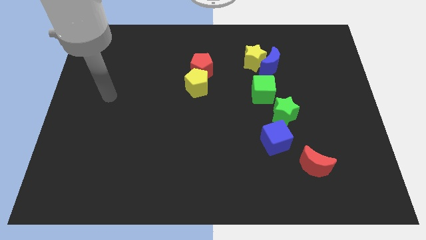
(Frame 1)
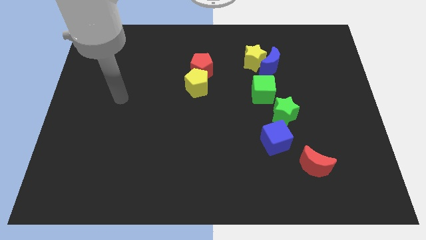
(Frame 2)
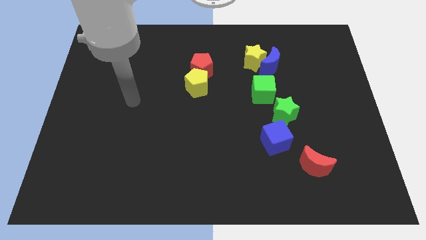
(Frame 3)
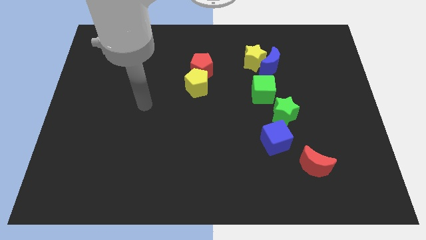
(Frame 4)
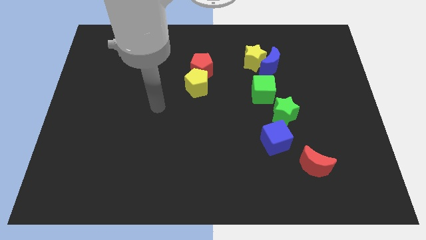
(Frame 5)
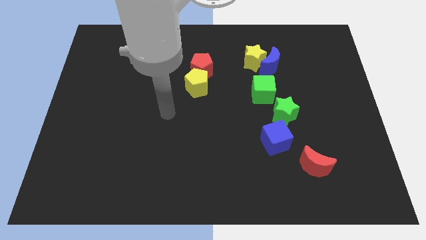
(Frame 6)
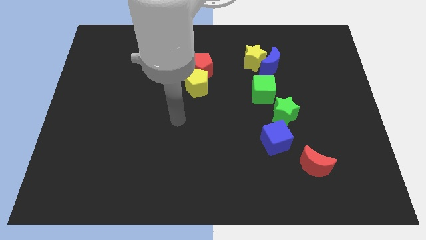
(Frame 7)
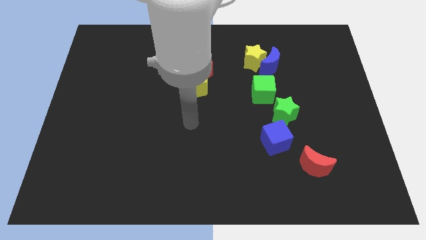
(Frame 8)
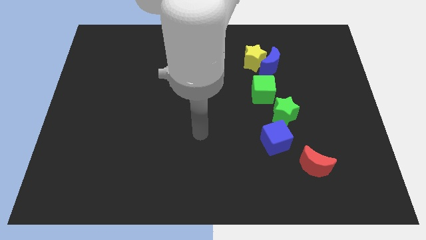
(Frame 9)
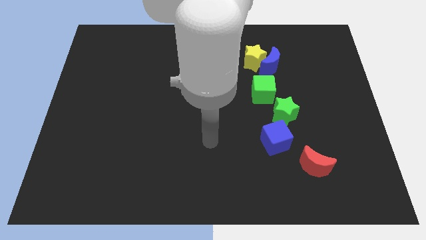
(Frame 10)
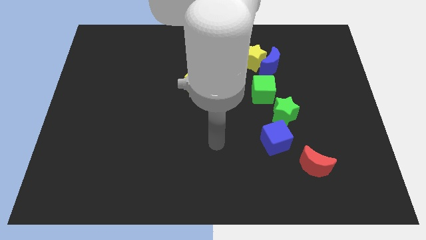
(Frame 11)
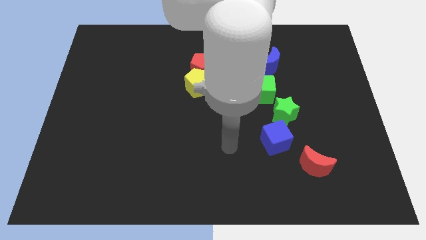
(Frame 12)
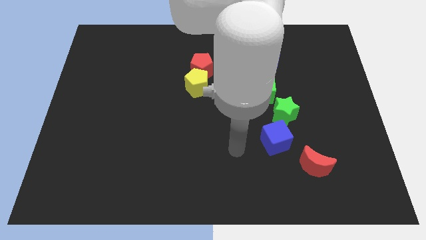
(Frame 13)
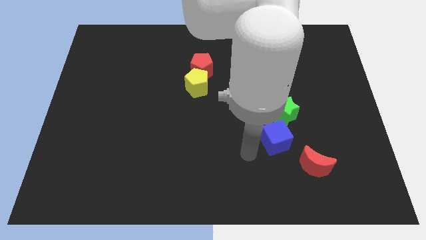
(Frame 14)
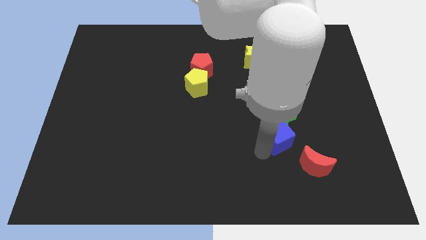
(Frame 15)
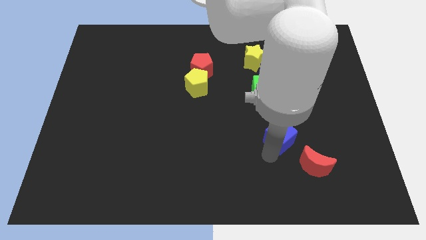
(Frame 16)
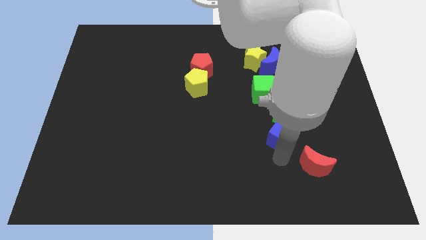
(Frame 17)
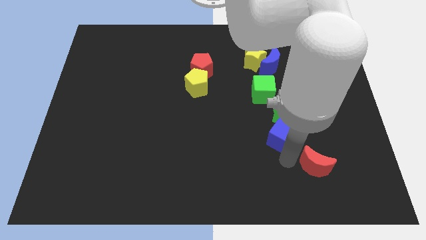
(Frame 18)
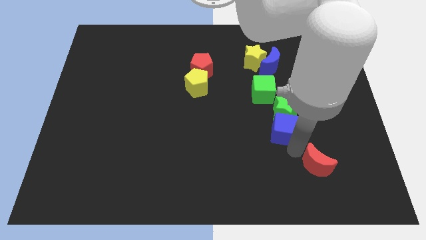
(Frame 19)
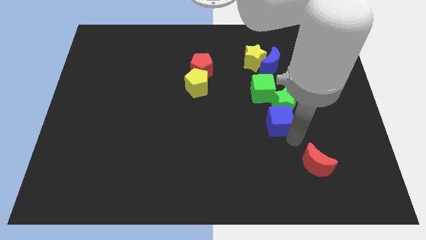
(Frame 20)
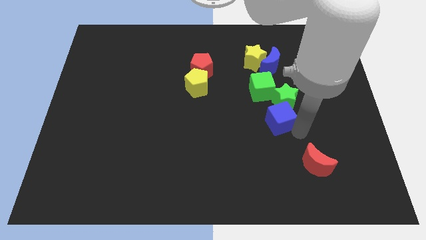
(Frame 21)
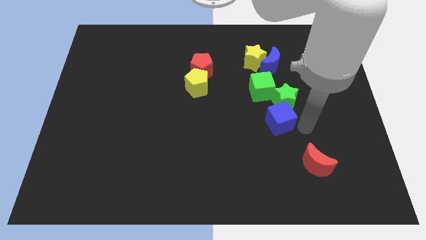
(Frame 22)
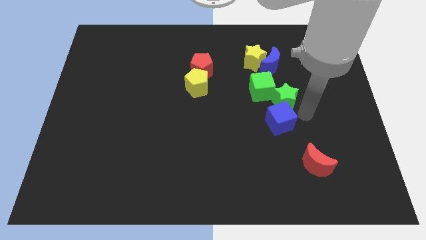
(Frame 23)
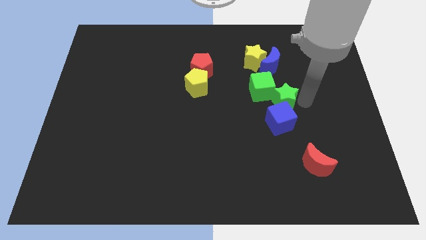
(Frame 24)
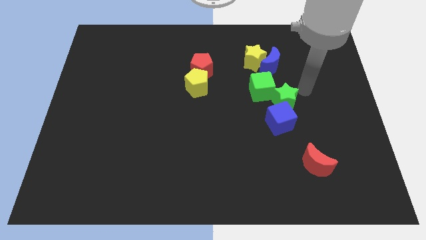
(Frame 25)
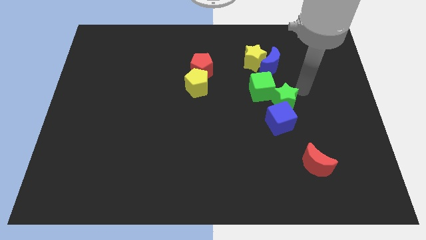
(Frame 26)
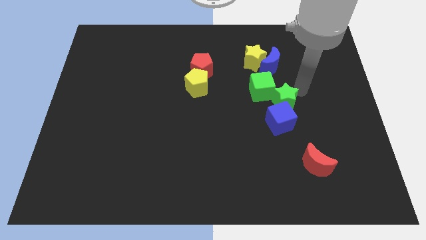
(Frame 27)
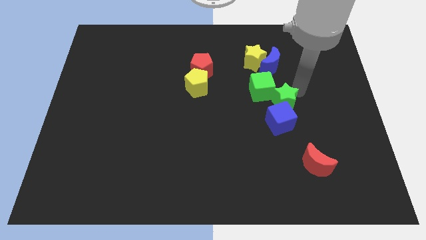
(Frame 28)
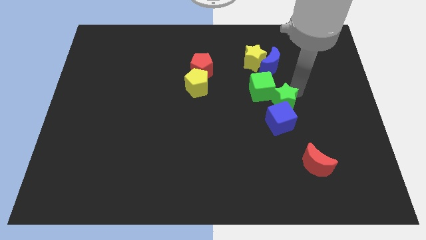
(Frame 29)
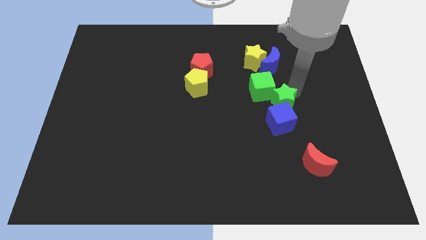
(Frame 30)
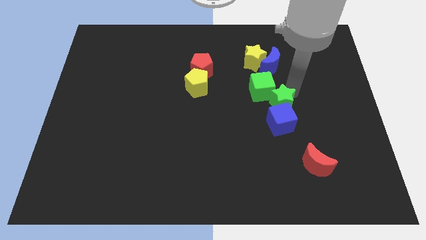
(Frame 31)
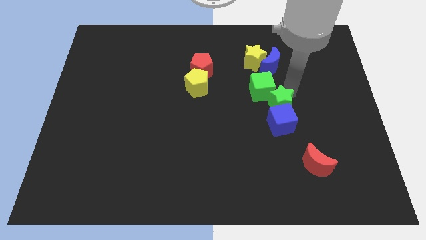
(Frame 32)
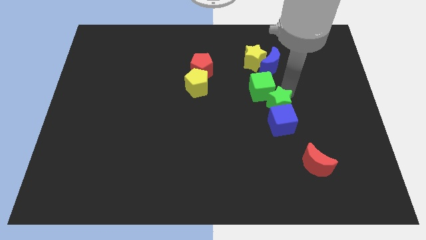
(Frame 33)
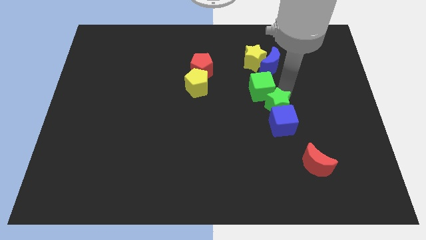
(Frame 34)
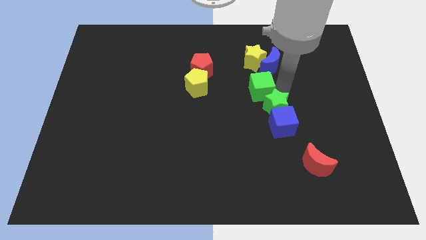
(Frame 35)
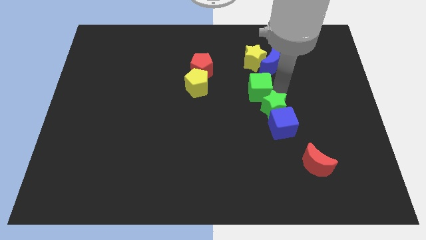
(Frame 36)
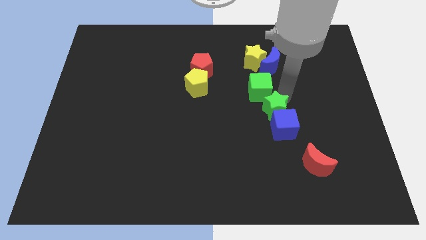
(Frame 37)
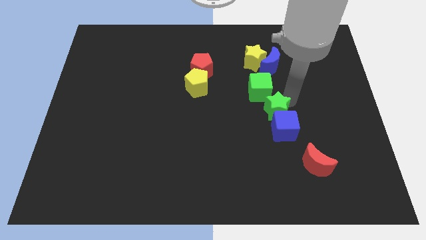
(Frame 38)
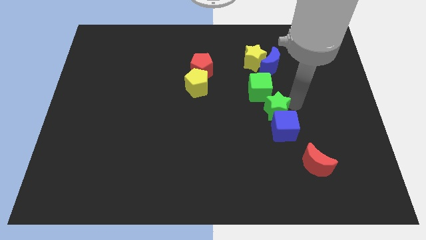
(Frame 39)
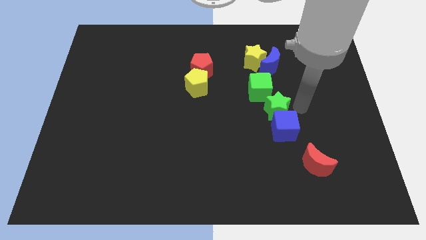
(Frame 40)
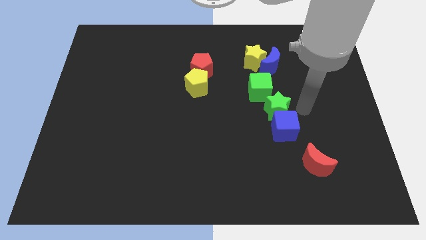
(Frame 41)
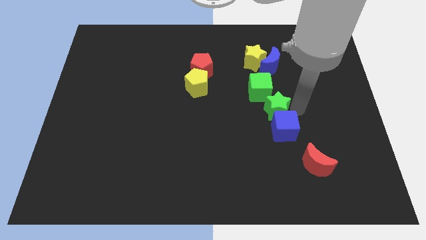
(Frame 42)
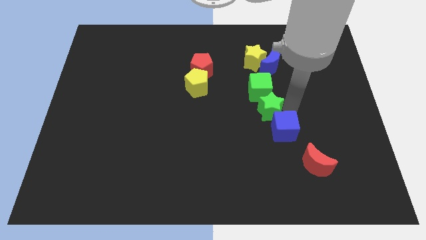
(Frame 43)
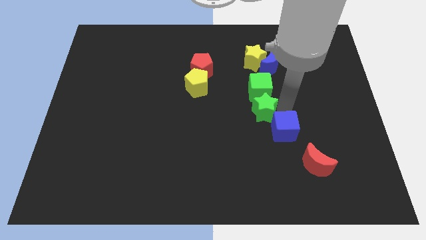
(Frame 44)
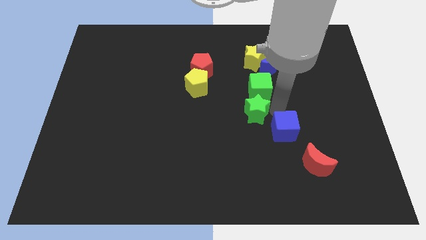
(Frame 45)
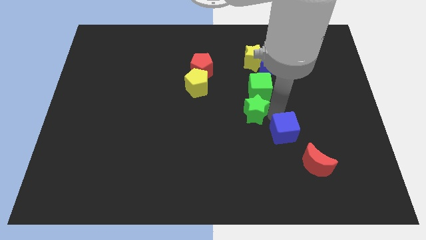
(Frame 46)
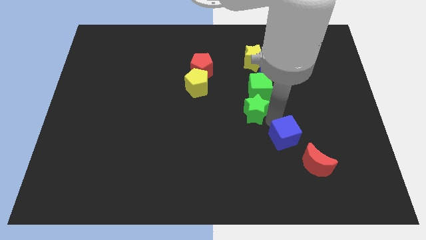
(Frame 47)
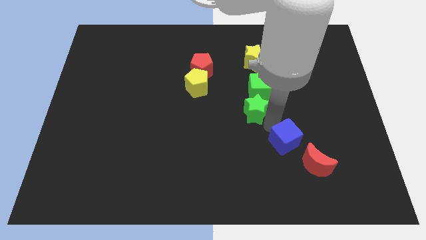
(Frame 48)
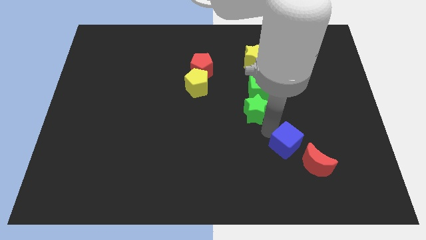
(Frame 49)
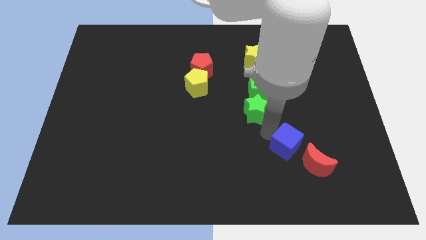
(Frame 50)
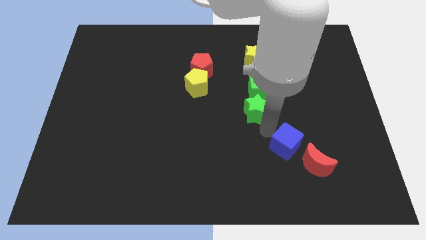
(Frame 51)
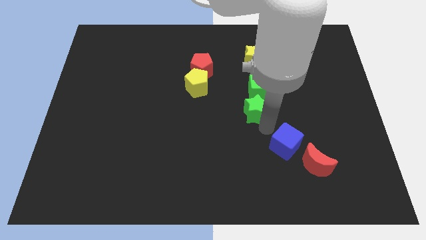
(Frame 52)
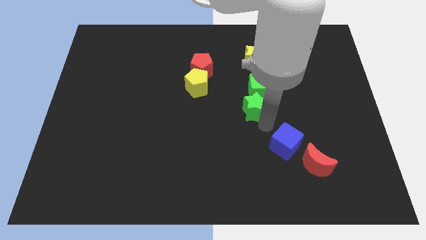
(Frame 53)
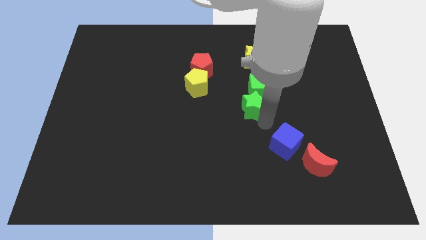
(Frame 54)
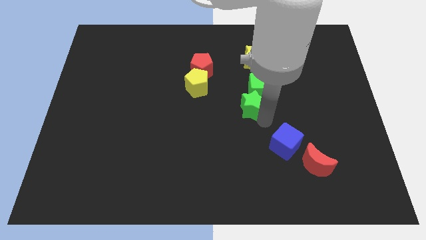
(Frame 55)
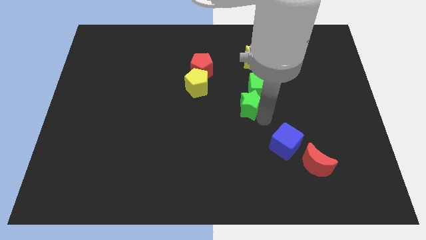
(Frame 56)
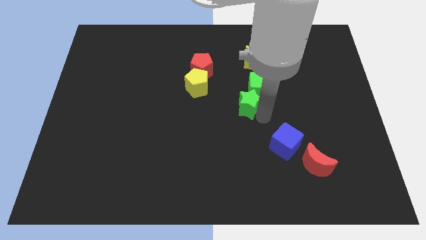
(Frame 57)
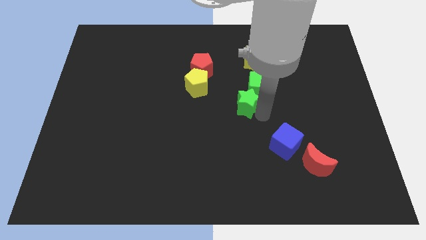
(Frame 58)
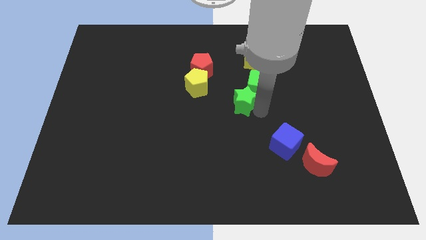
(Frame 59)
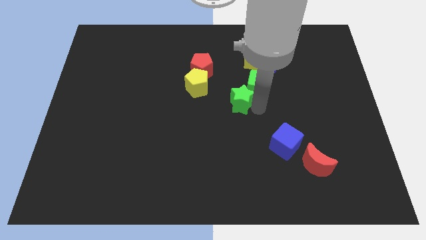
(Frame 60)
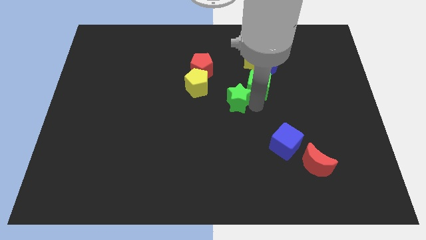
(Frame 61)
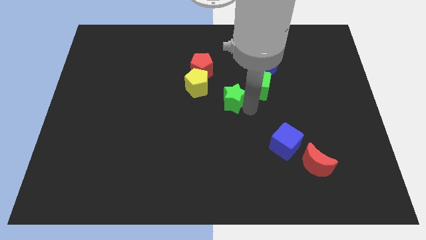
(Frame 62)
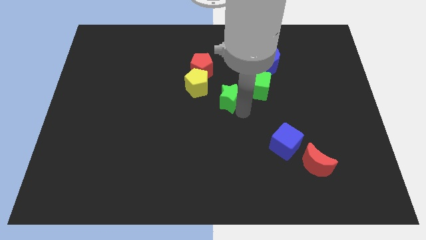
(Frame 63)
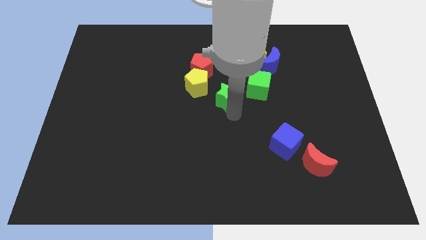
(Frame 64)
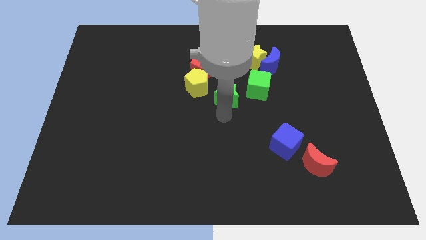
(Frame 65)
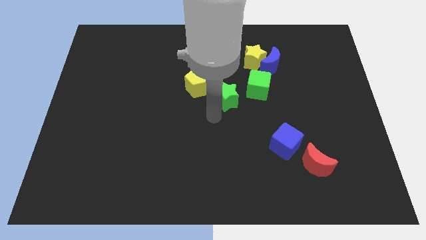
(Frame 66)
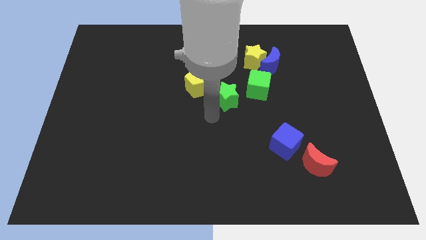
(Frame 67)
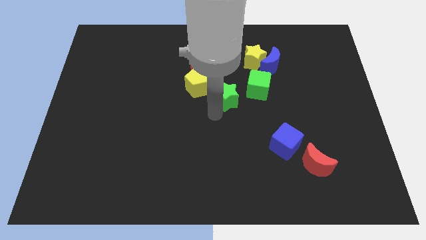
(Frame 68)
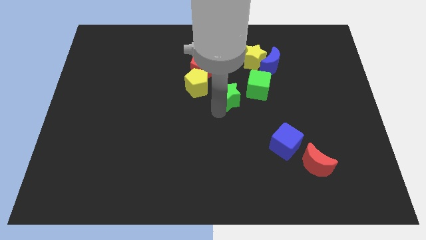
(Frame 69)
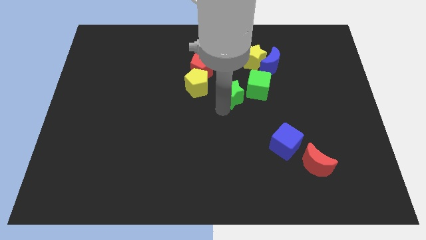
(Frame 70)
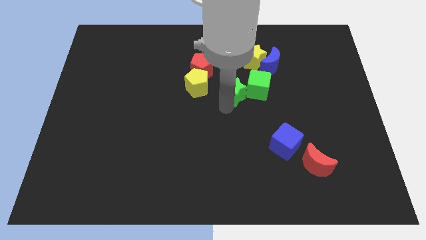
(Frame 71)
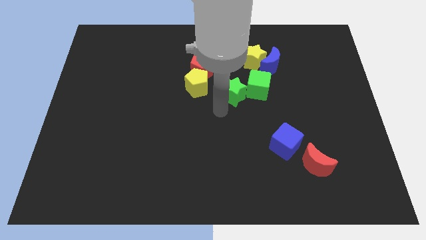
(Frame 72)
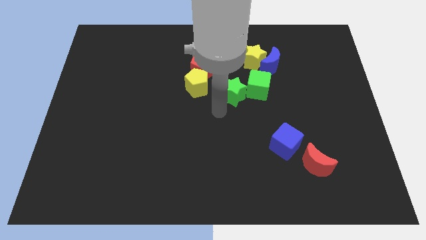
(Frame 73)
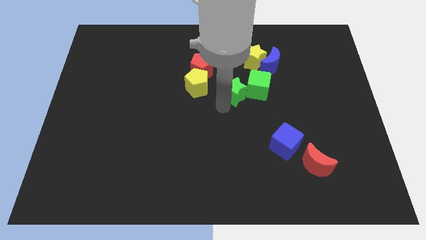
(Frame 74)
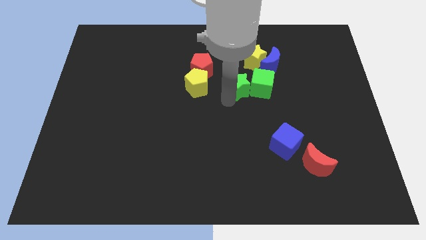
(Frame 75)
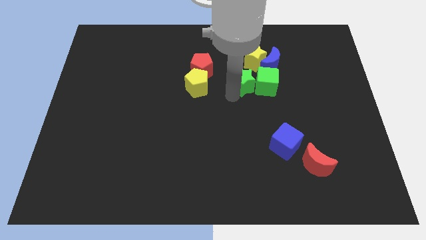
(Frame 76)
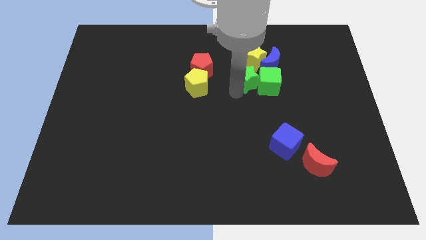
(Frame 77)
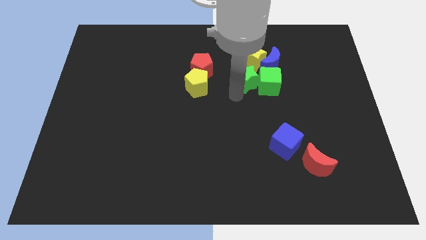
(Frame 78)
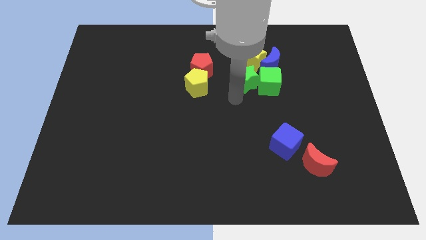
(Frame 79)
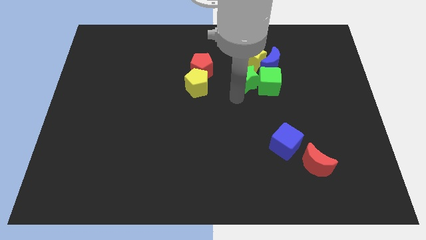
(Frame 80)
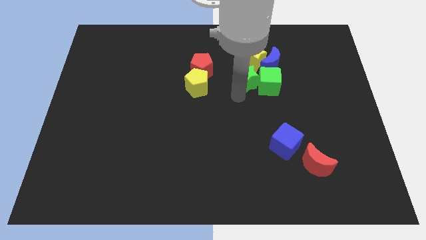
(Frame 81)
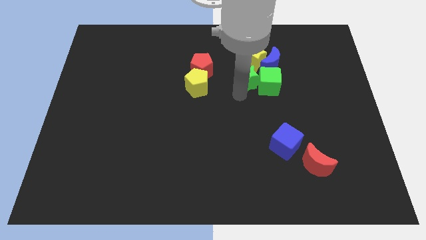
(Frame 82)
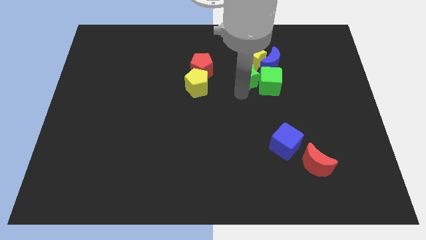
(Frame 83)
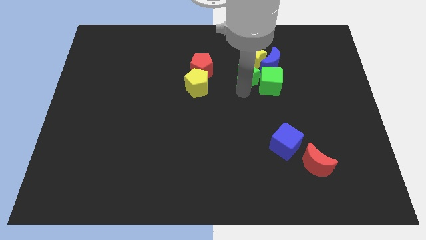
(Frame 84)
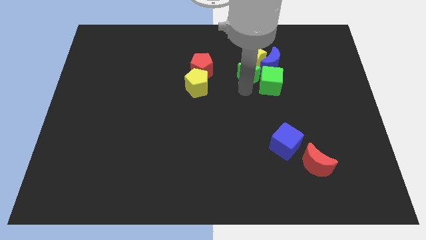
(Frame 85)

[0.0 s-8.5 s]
move the green star close to the yellow star
